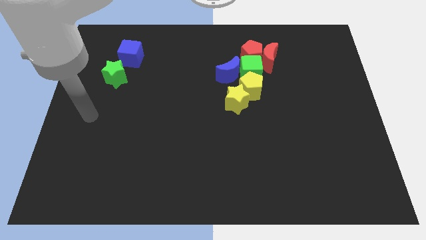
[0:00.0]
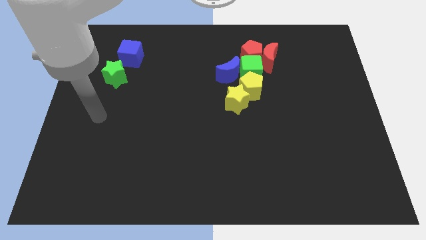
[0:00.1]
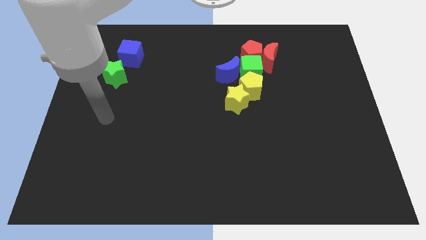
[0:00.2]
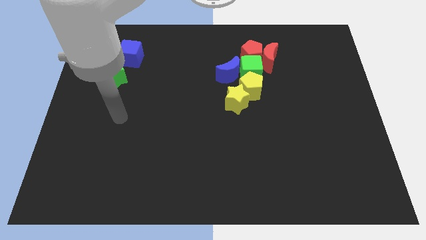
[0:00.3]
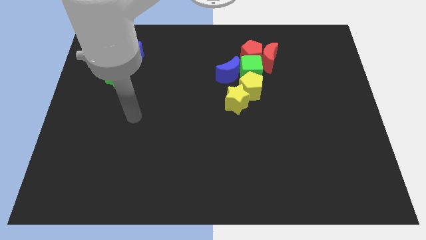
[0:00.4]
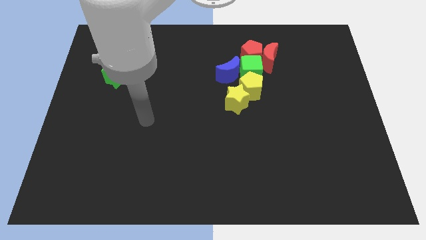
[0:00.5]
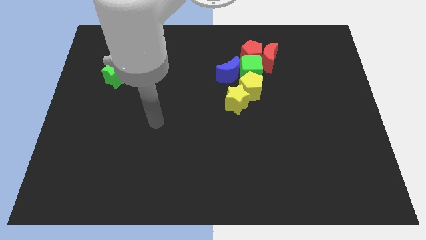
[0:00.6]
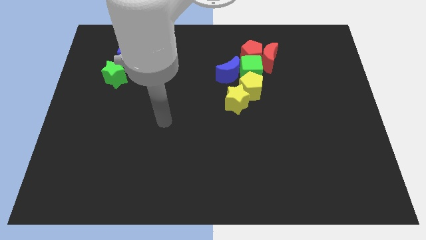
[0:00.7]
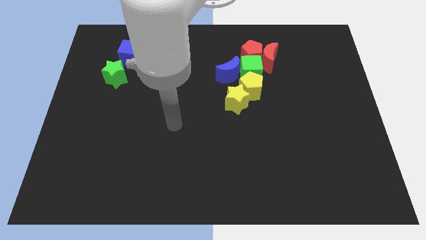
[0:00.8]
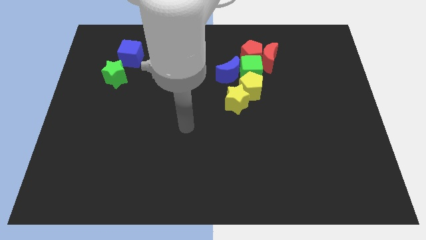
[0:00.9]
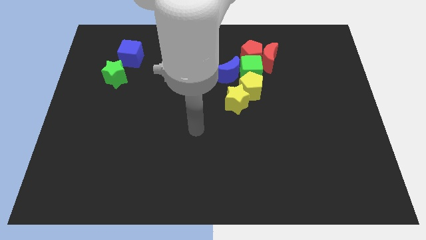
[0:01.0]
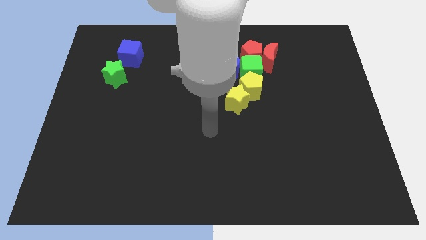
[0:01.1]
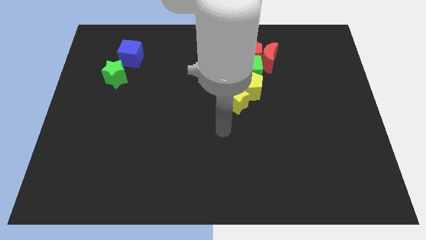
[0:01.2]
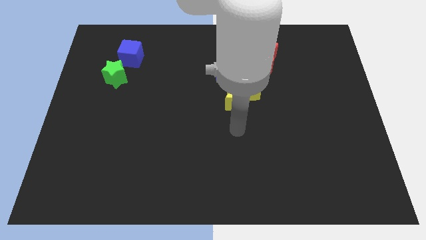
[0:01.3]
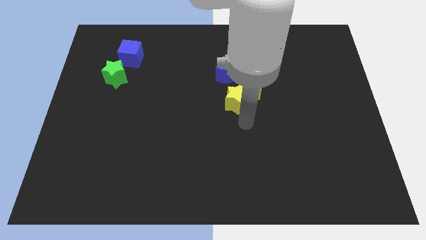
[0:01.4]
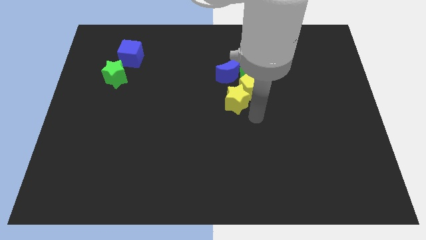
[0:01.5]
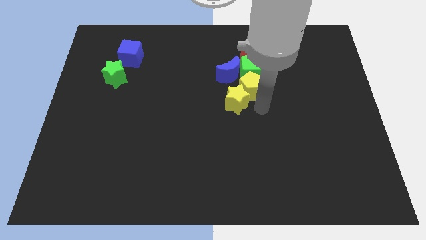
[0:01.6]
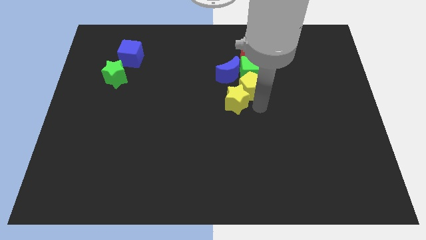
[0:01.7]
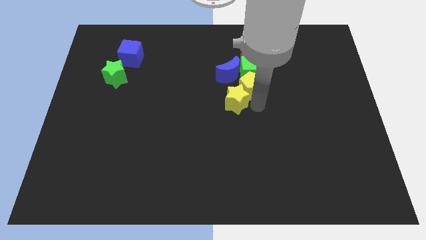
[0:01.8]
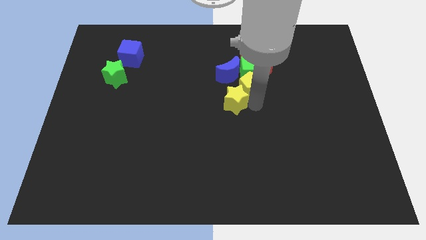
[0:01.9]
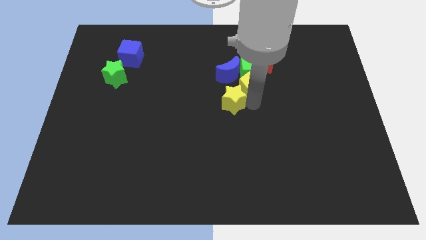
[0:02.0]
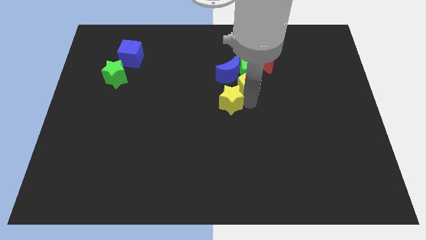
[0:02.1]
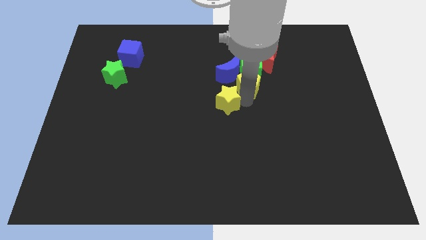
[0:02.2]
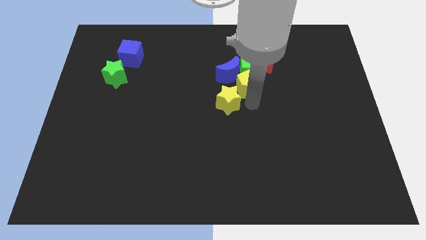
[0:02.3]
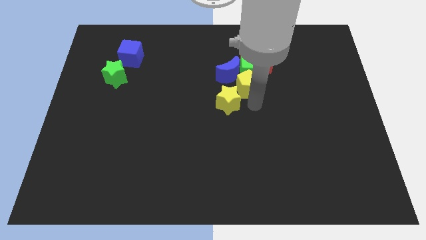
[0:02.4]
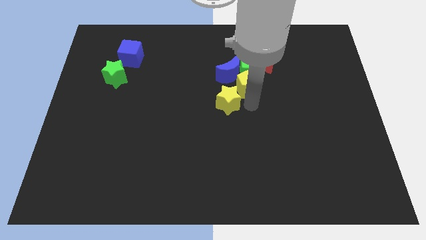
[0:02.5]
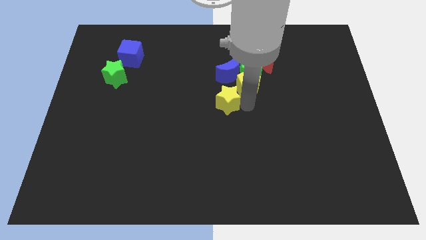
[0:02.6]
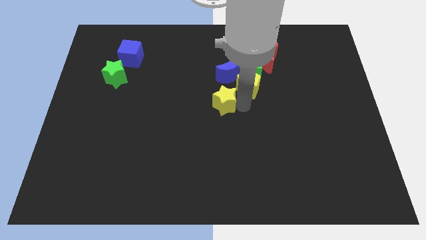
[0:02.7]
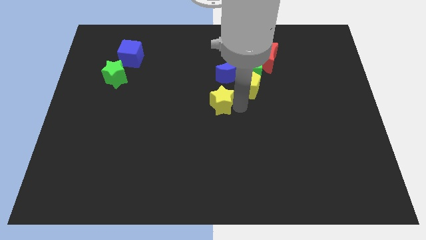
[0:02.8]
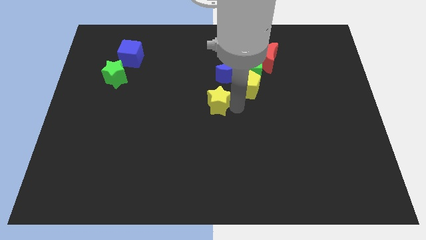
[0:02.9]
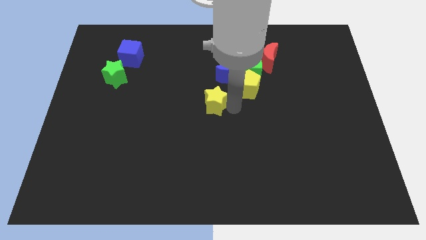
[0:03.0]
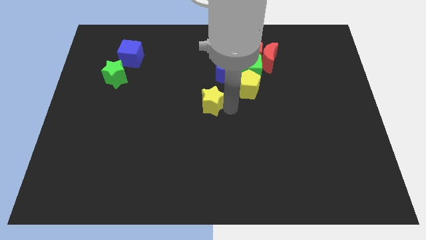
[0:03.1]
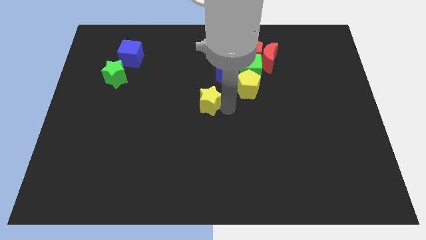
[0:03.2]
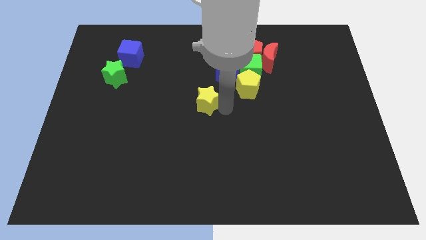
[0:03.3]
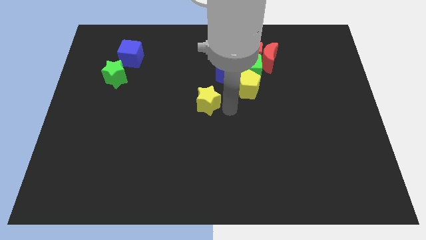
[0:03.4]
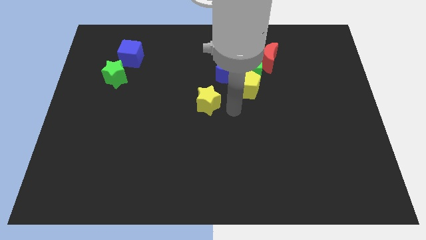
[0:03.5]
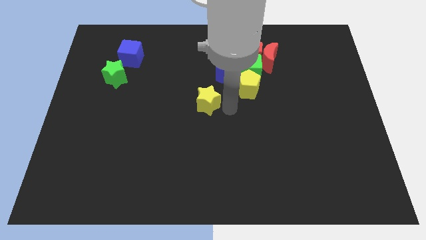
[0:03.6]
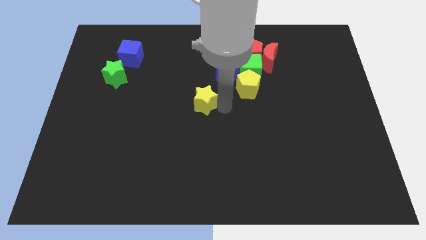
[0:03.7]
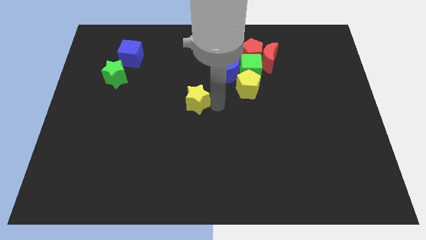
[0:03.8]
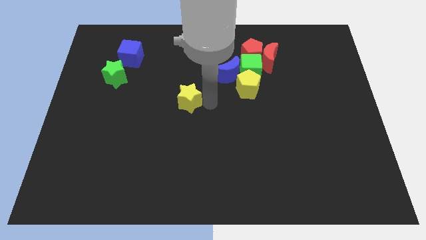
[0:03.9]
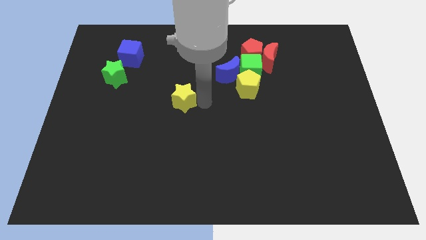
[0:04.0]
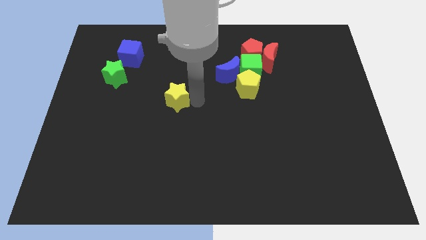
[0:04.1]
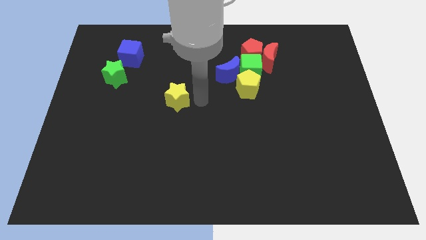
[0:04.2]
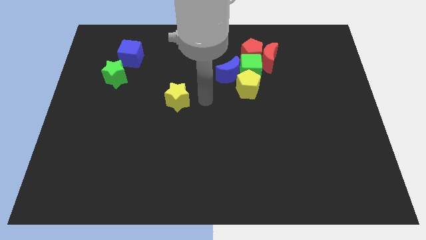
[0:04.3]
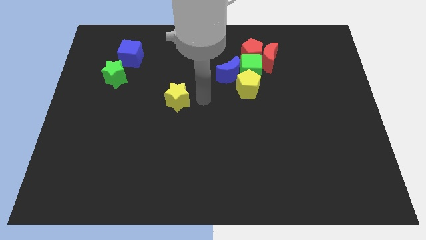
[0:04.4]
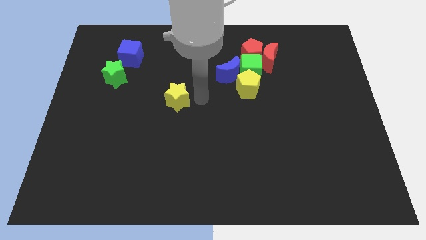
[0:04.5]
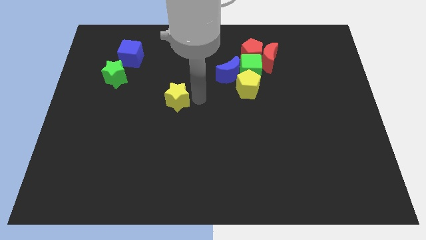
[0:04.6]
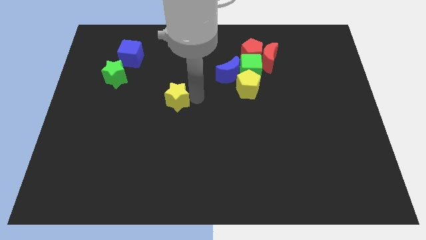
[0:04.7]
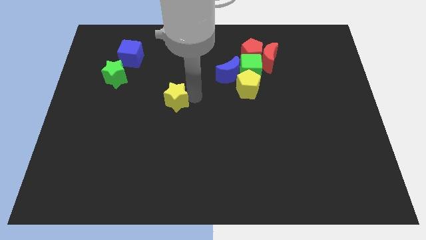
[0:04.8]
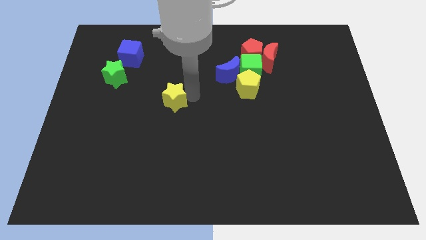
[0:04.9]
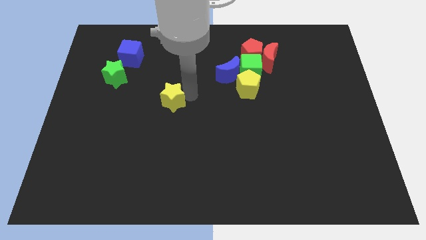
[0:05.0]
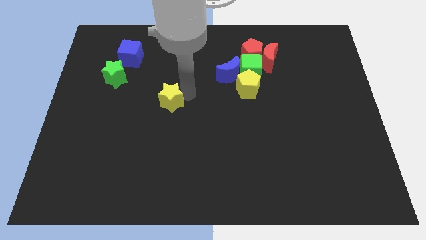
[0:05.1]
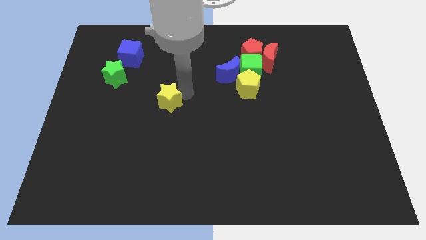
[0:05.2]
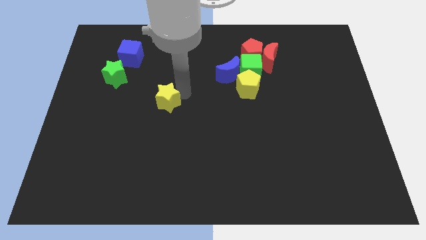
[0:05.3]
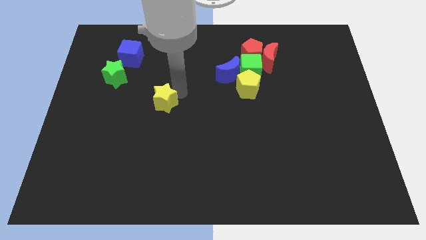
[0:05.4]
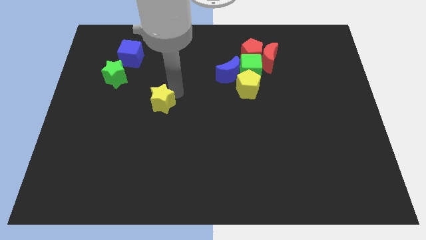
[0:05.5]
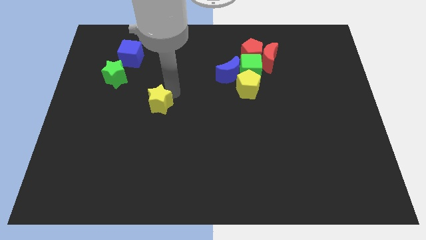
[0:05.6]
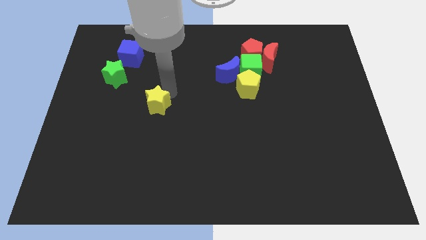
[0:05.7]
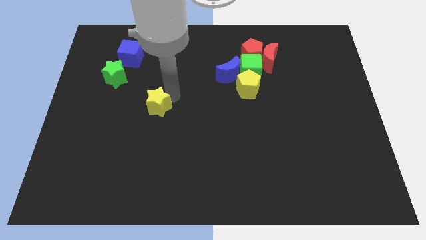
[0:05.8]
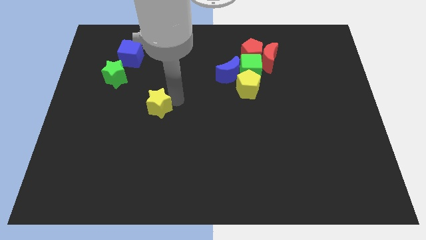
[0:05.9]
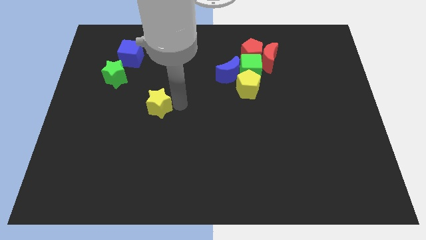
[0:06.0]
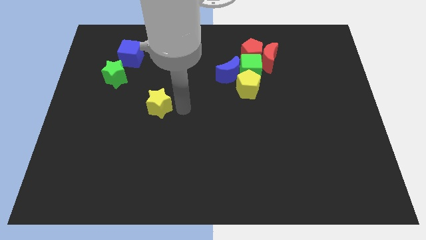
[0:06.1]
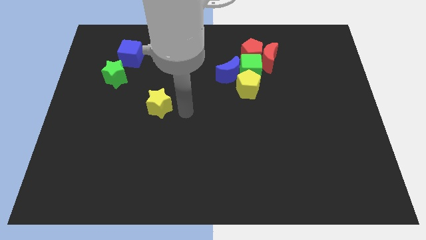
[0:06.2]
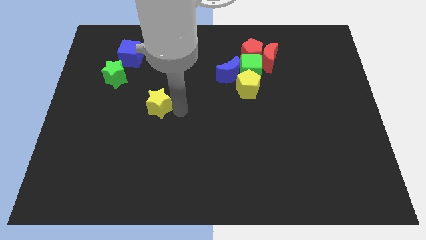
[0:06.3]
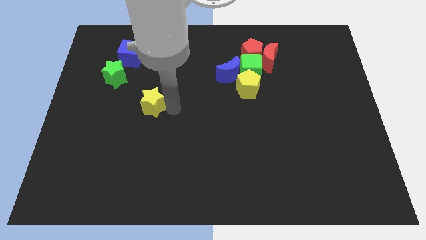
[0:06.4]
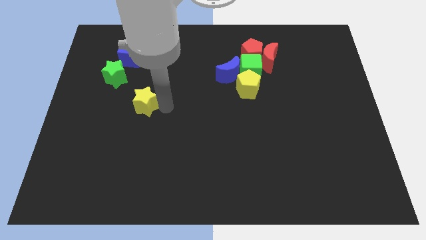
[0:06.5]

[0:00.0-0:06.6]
move the yellow star left

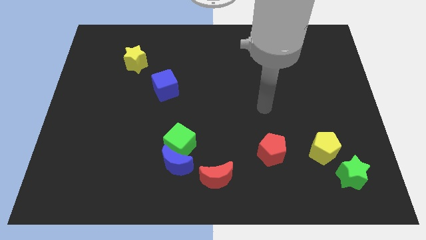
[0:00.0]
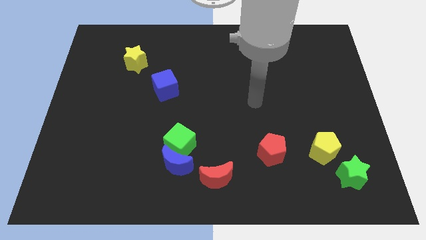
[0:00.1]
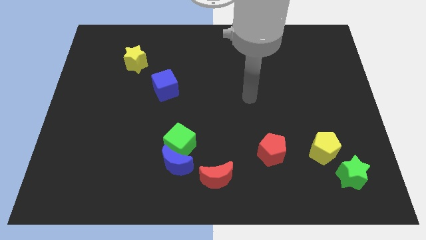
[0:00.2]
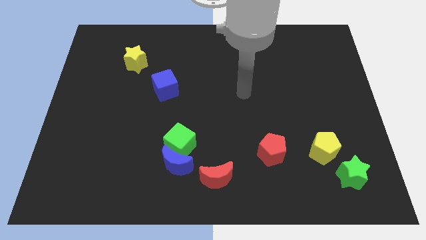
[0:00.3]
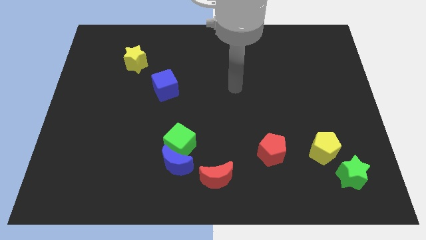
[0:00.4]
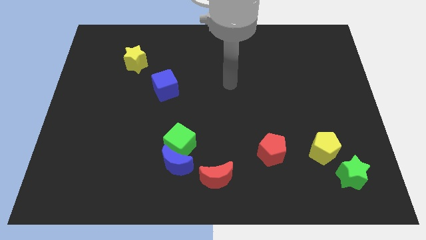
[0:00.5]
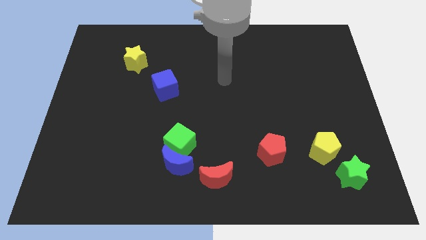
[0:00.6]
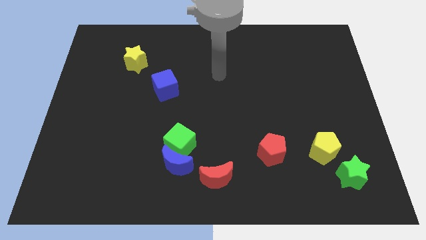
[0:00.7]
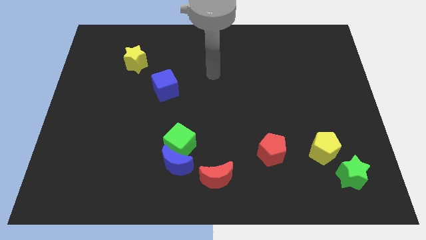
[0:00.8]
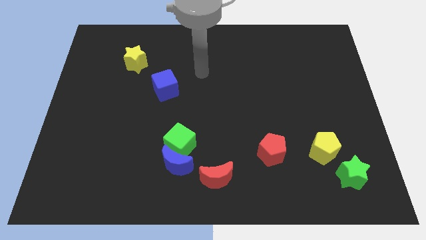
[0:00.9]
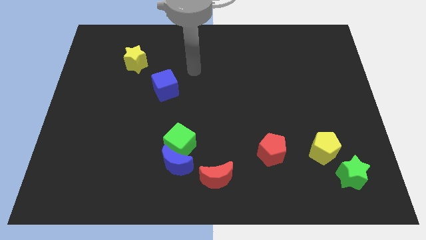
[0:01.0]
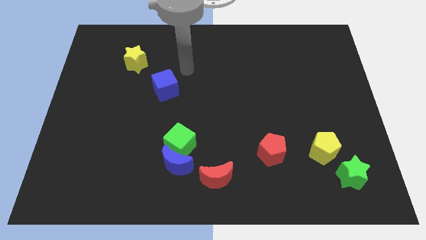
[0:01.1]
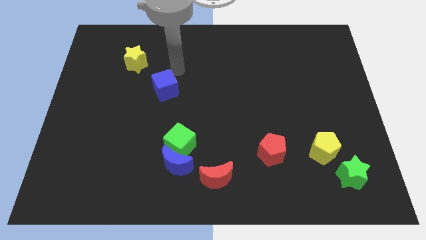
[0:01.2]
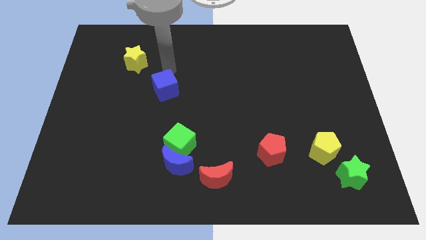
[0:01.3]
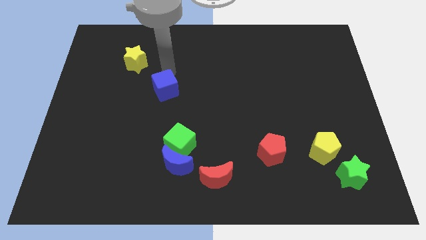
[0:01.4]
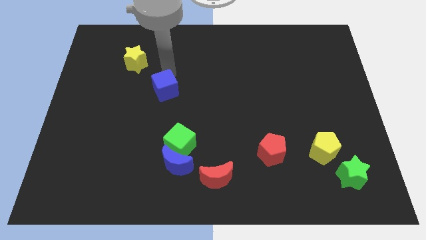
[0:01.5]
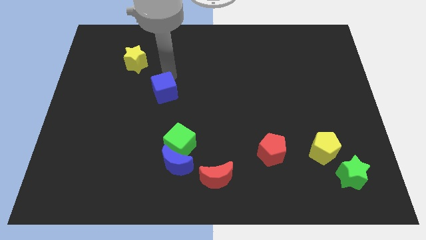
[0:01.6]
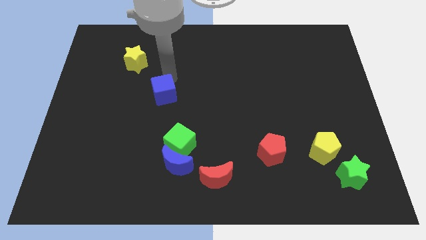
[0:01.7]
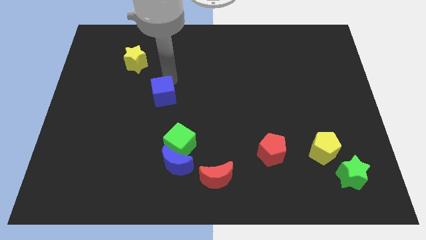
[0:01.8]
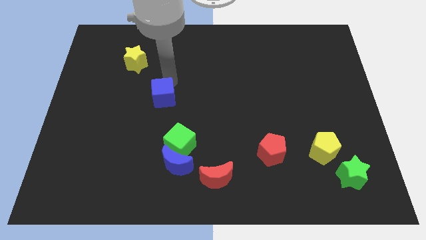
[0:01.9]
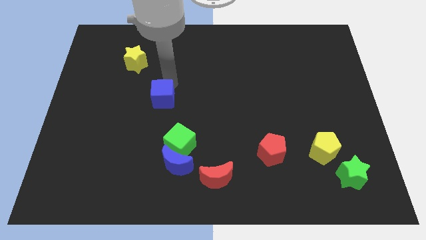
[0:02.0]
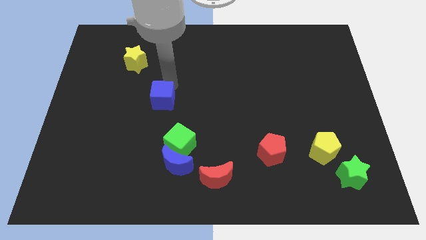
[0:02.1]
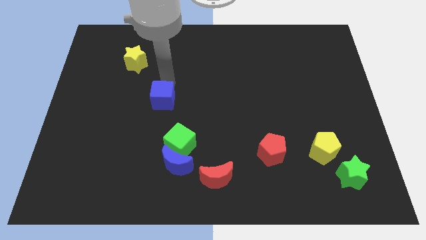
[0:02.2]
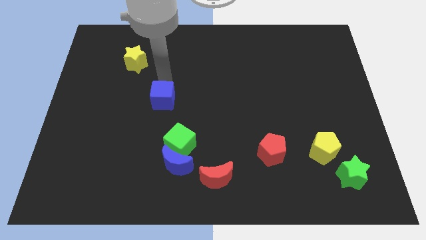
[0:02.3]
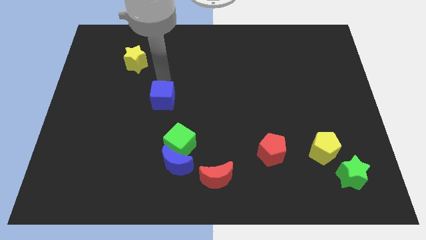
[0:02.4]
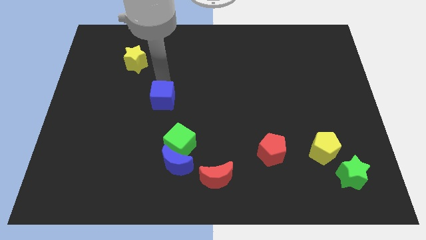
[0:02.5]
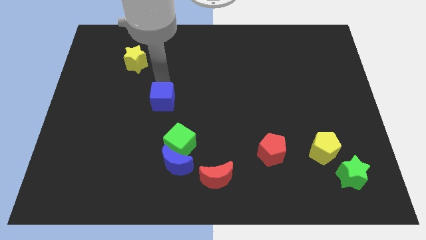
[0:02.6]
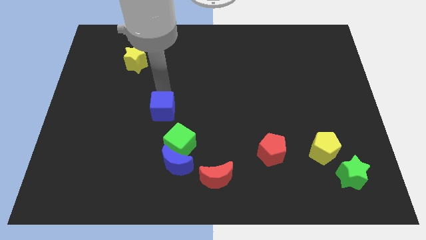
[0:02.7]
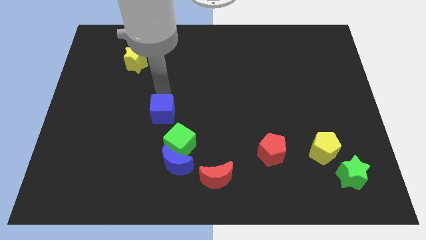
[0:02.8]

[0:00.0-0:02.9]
slightly slide the blue cube downwards
